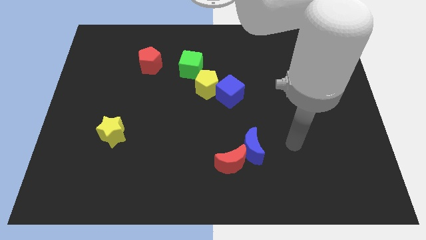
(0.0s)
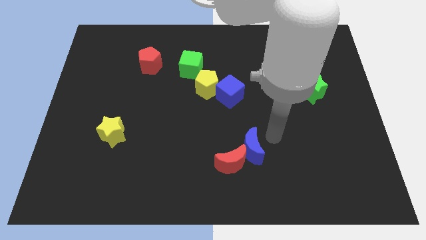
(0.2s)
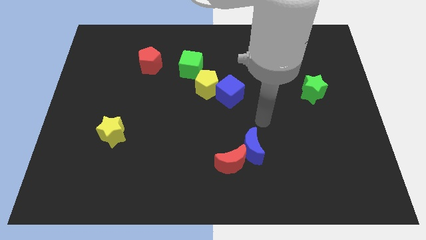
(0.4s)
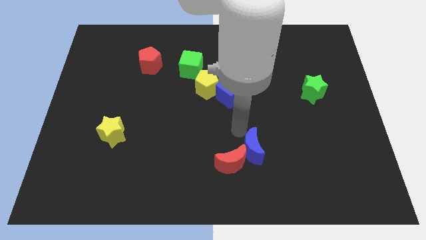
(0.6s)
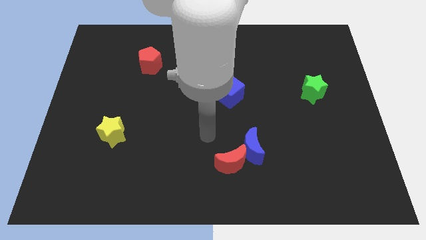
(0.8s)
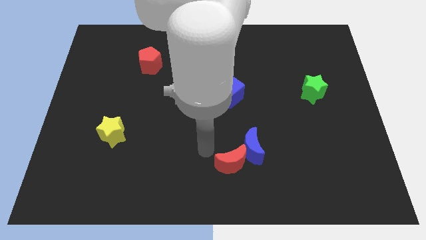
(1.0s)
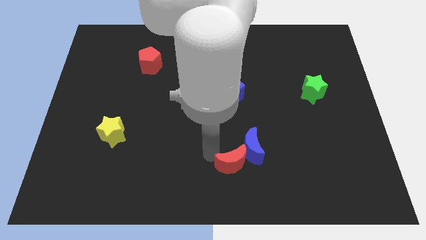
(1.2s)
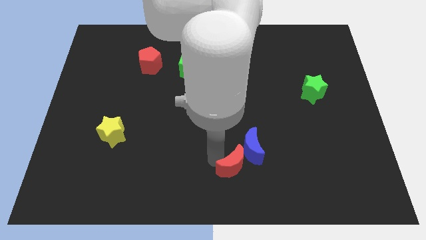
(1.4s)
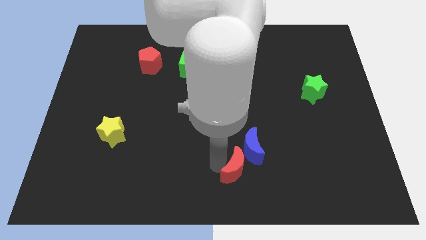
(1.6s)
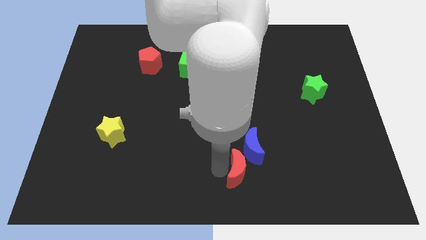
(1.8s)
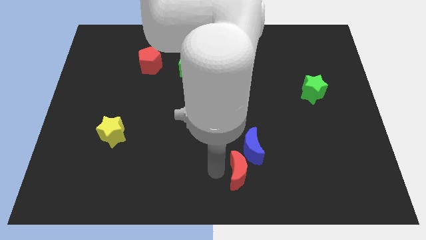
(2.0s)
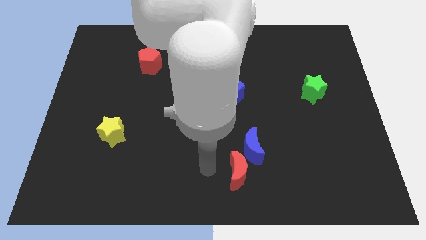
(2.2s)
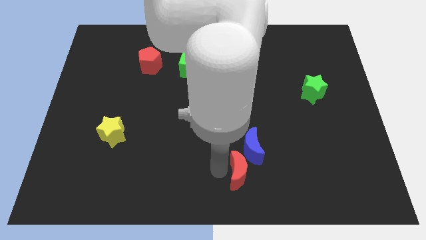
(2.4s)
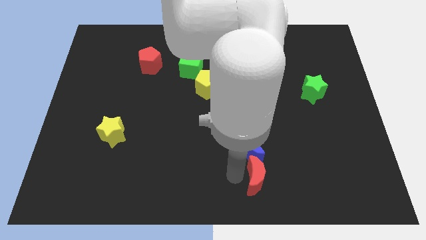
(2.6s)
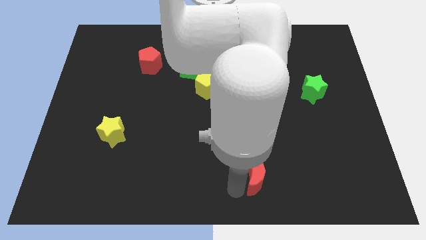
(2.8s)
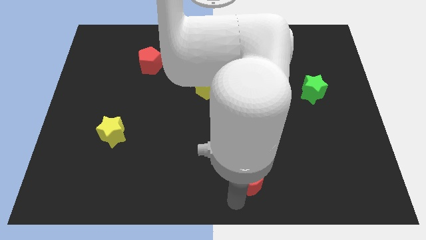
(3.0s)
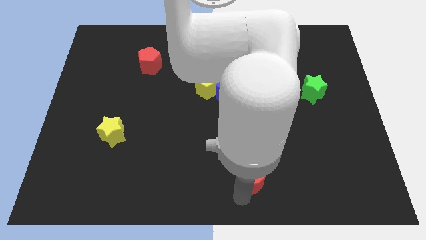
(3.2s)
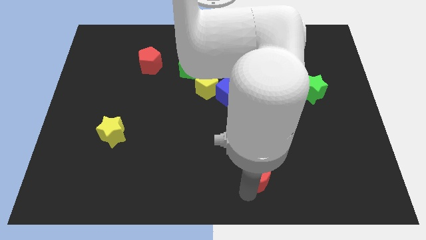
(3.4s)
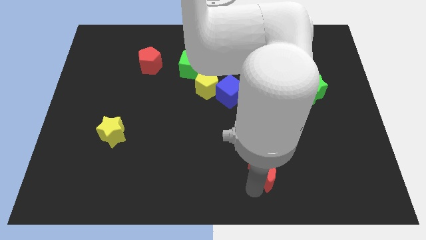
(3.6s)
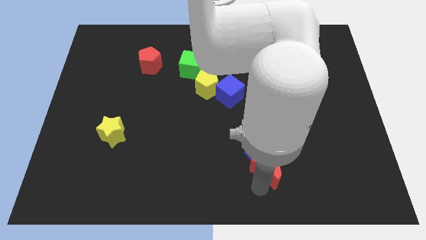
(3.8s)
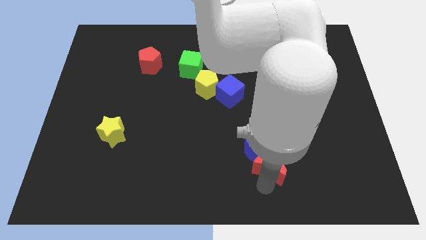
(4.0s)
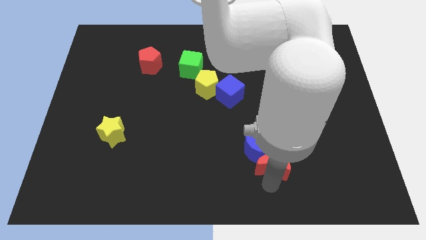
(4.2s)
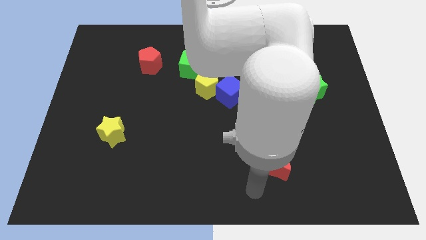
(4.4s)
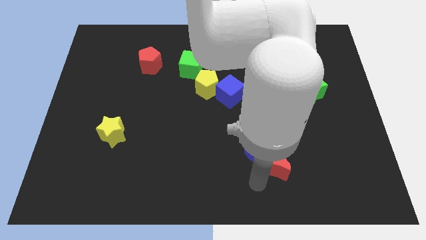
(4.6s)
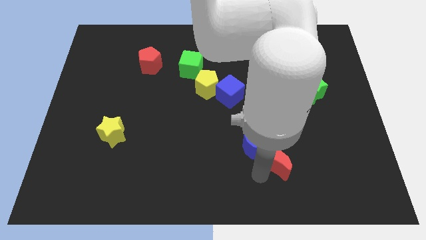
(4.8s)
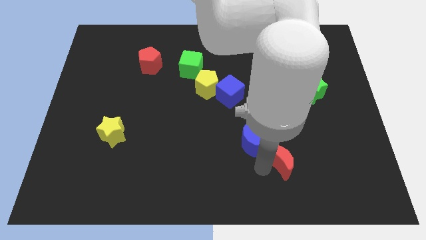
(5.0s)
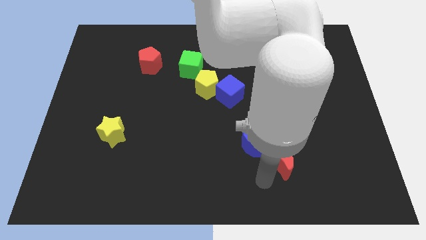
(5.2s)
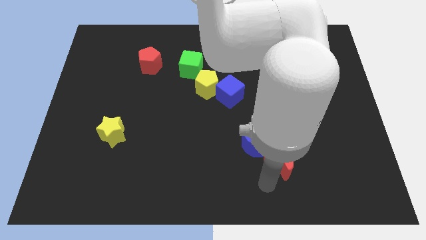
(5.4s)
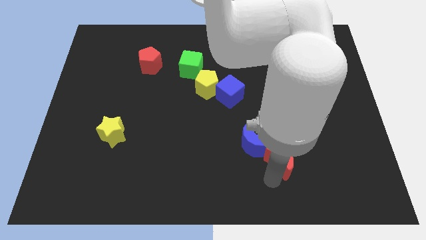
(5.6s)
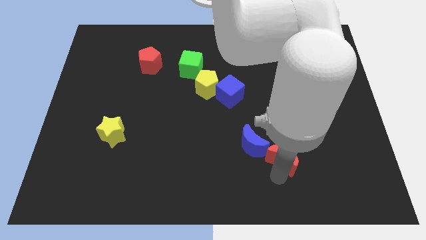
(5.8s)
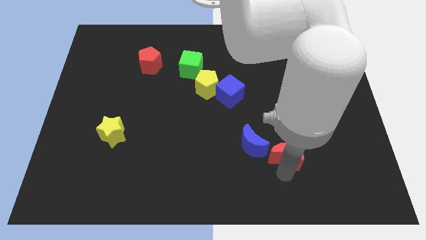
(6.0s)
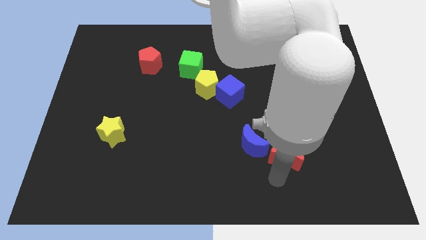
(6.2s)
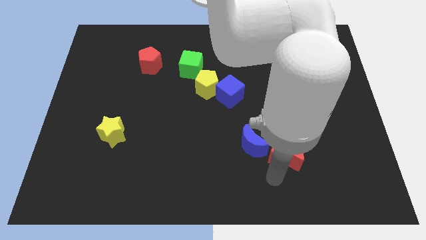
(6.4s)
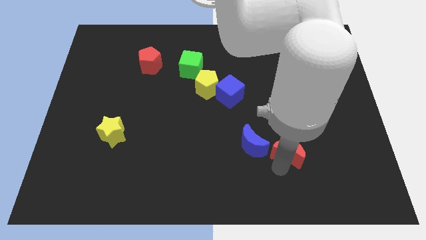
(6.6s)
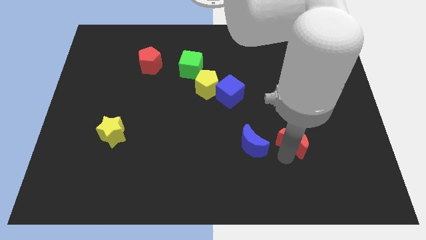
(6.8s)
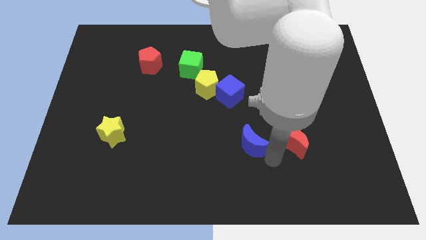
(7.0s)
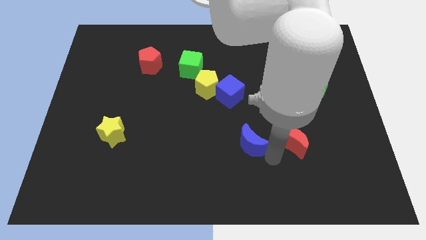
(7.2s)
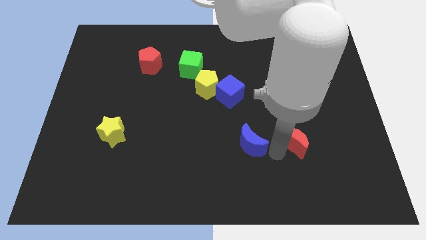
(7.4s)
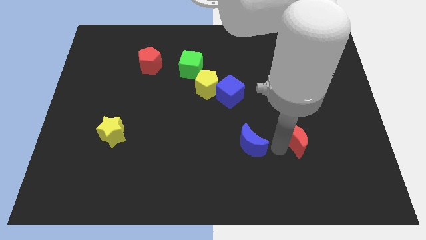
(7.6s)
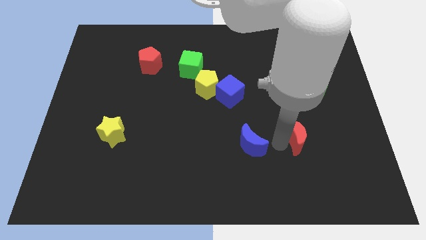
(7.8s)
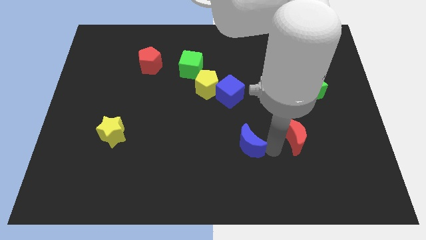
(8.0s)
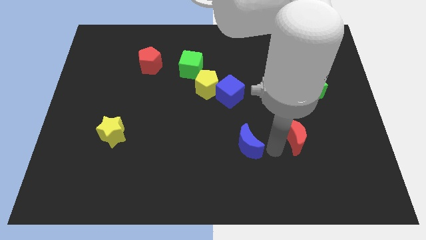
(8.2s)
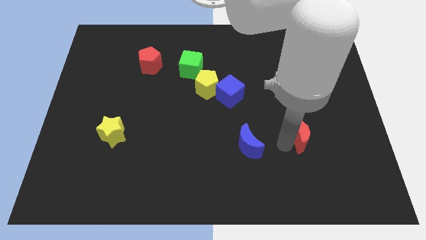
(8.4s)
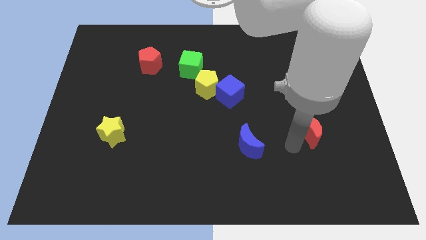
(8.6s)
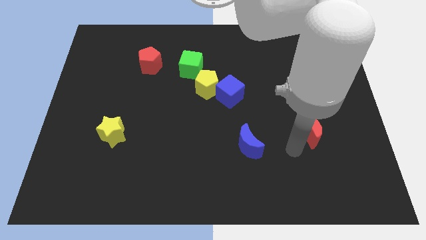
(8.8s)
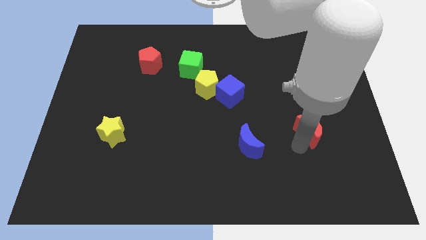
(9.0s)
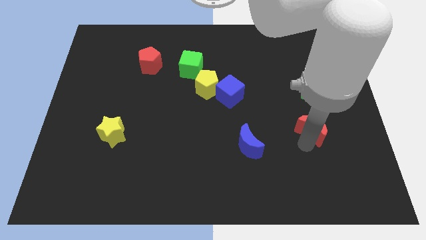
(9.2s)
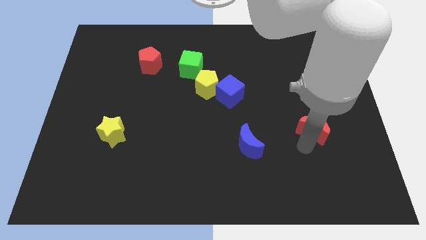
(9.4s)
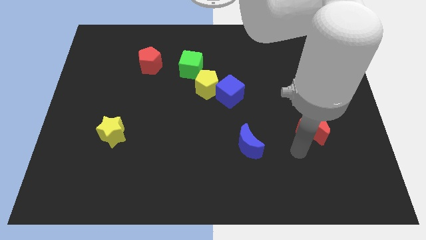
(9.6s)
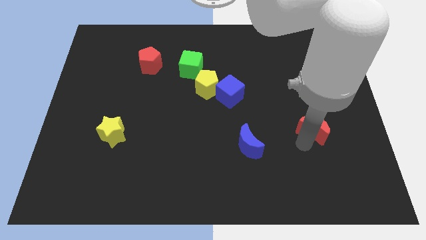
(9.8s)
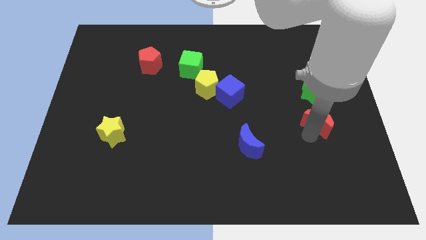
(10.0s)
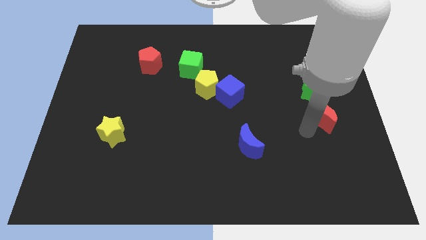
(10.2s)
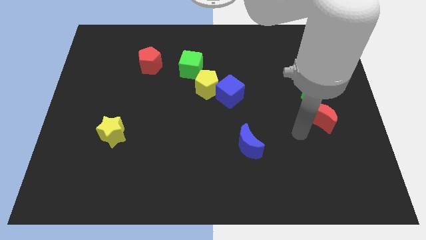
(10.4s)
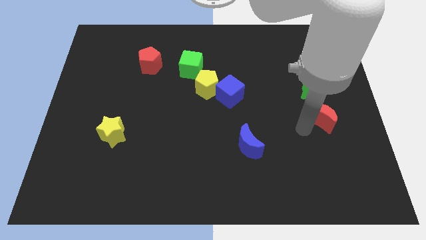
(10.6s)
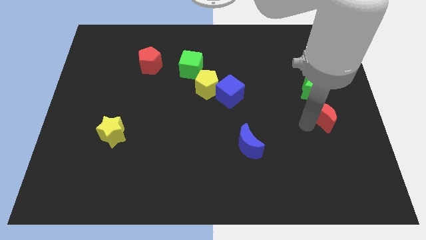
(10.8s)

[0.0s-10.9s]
slide the red moon to the bottom right side of the green star

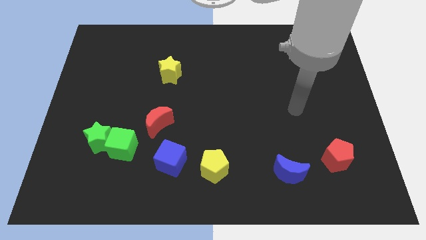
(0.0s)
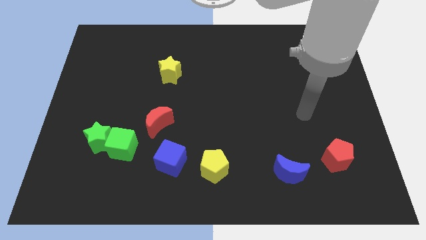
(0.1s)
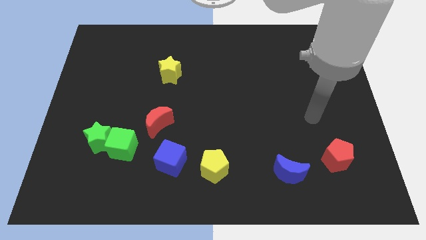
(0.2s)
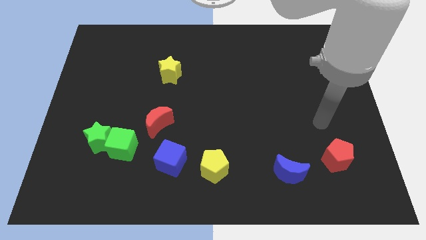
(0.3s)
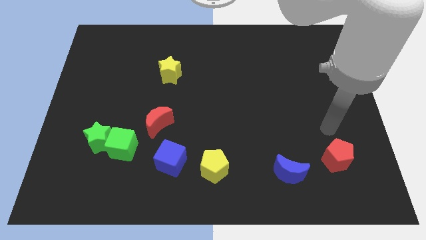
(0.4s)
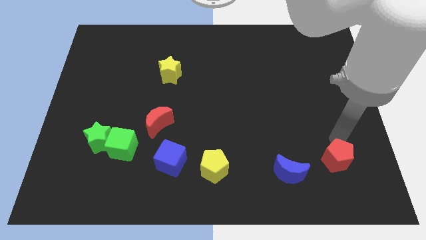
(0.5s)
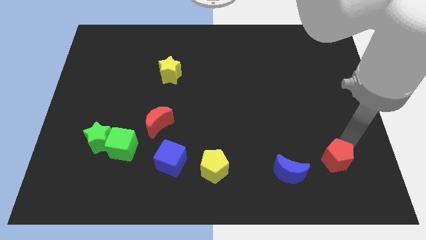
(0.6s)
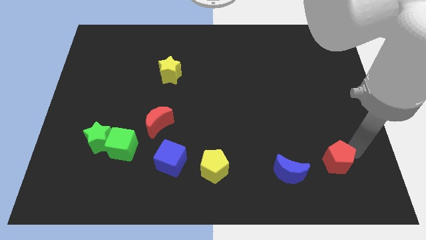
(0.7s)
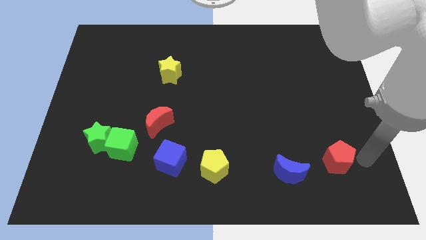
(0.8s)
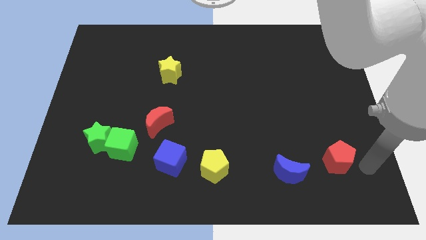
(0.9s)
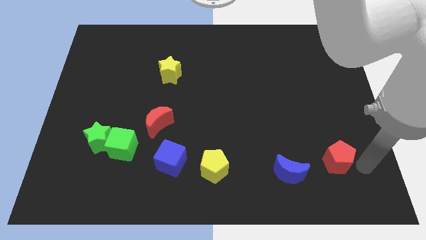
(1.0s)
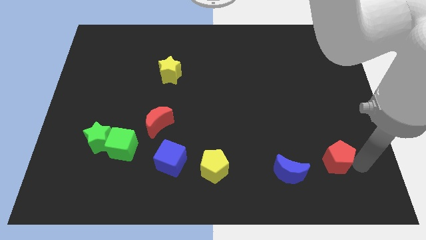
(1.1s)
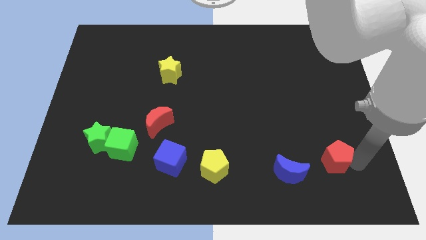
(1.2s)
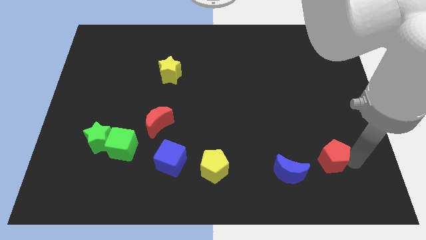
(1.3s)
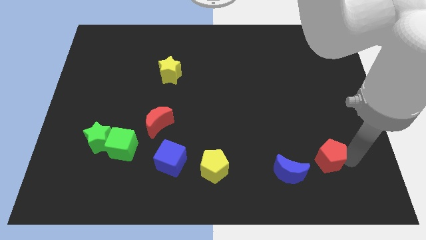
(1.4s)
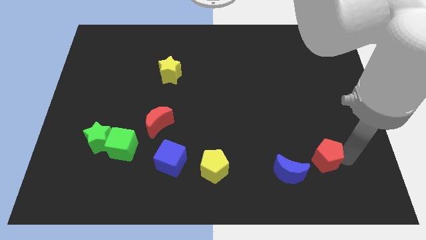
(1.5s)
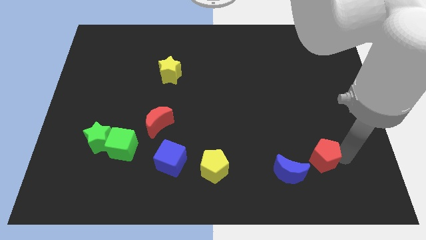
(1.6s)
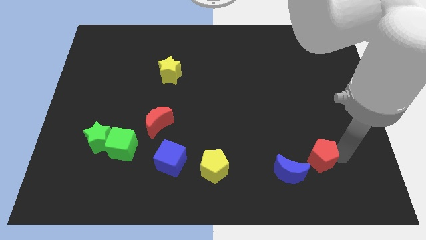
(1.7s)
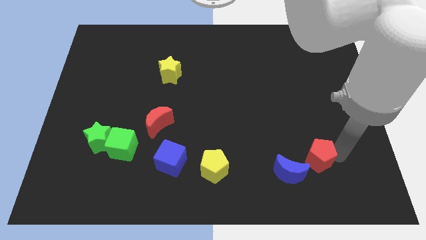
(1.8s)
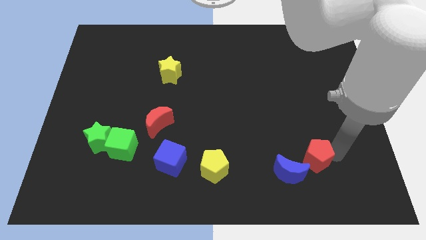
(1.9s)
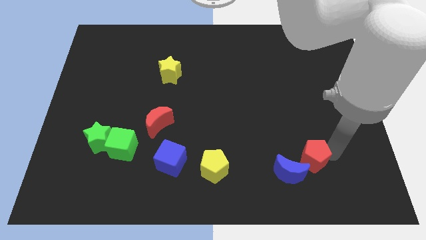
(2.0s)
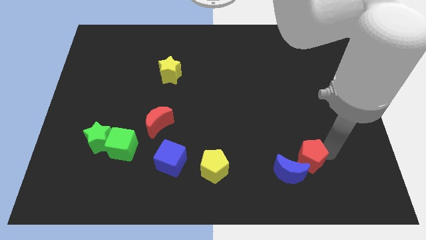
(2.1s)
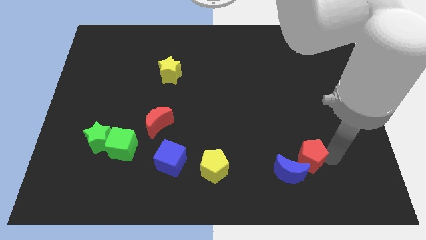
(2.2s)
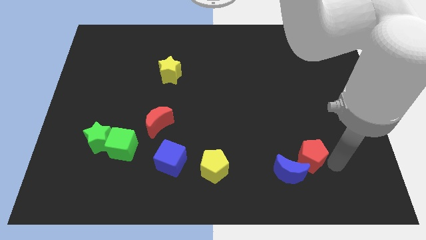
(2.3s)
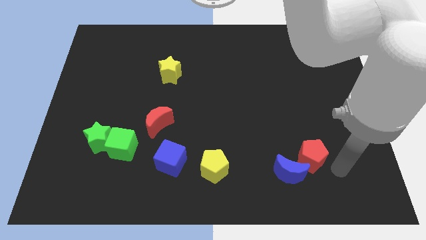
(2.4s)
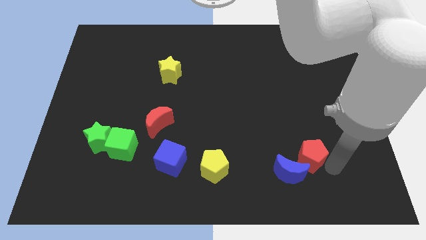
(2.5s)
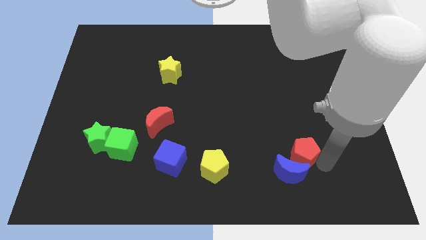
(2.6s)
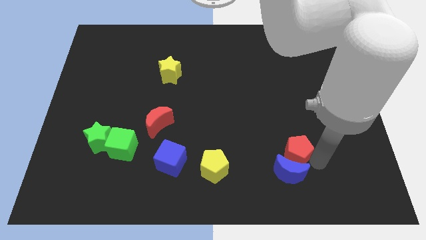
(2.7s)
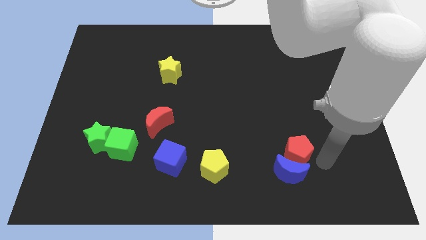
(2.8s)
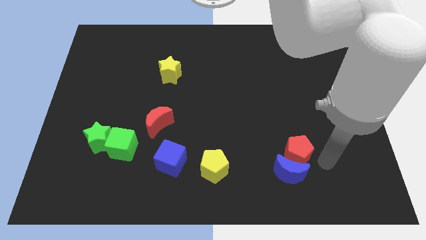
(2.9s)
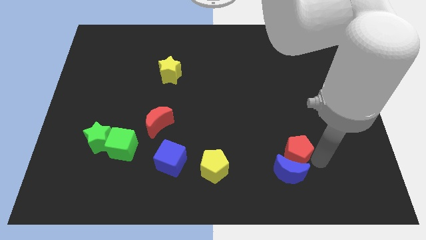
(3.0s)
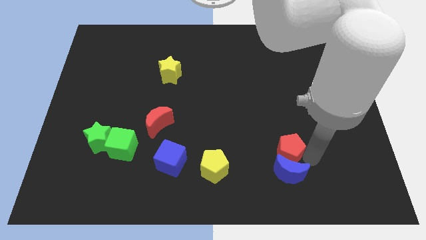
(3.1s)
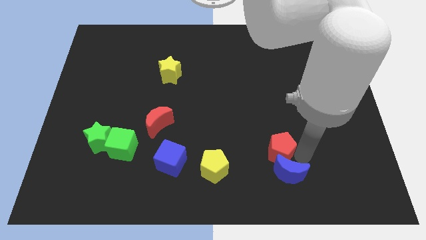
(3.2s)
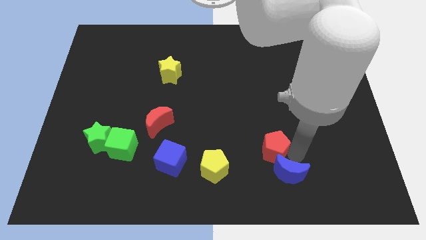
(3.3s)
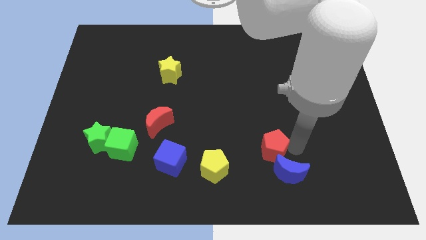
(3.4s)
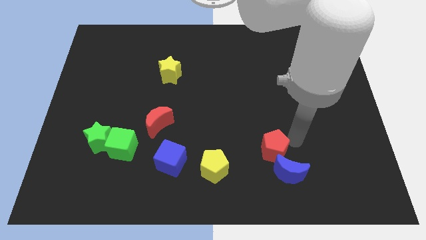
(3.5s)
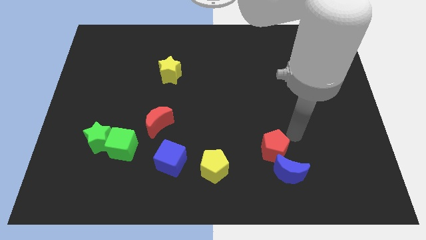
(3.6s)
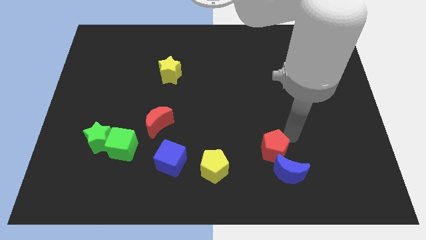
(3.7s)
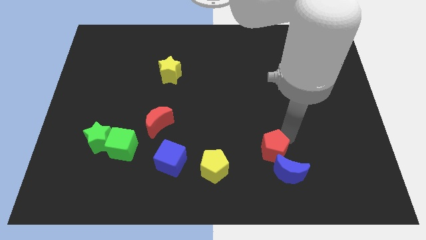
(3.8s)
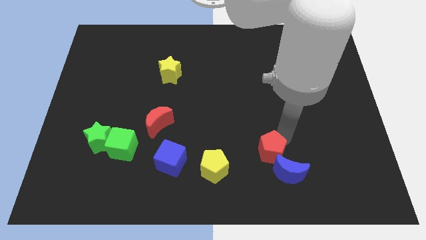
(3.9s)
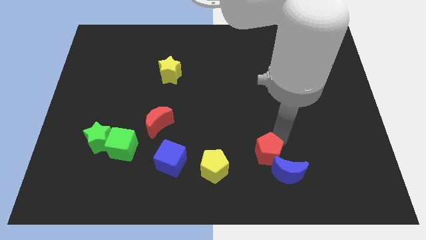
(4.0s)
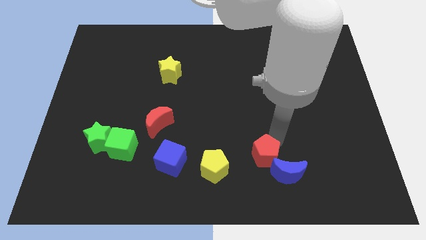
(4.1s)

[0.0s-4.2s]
move the red pentagon just left of the blue moon
